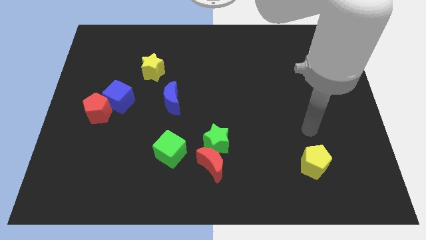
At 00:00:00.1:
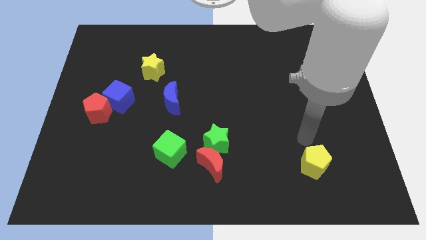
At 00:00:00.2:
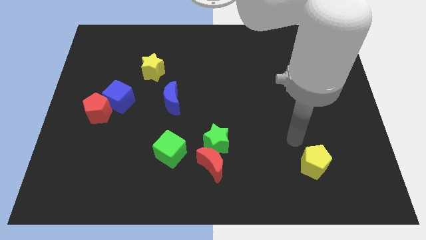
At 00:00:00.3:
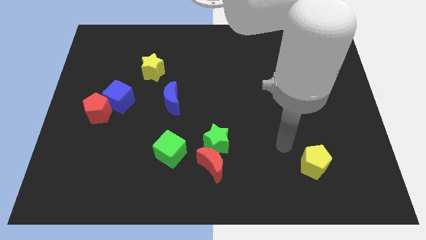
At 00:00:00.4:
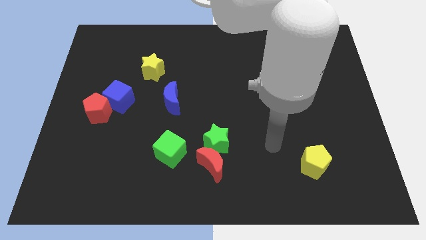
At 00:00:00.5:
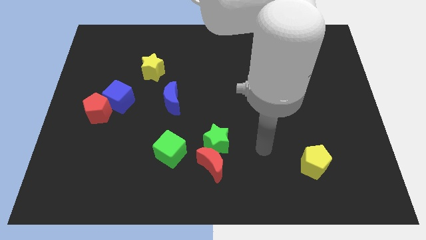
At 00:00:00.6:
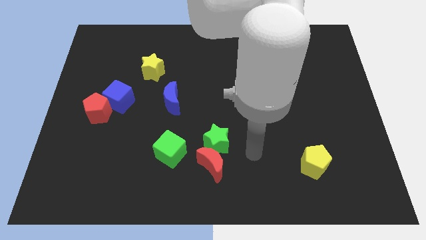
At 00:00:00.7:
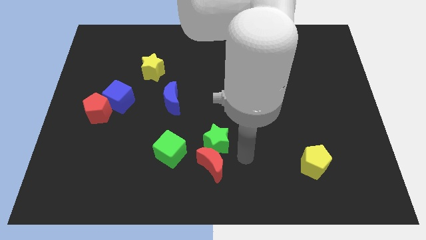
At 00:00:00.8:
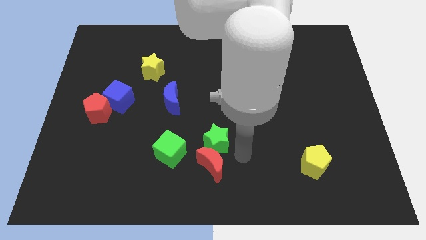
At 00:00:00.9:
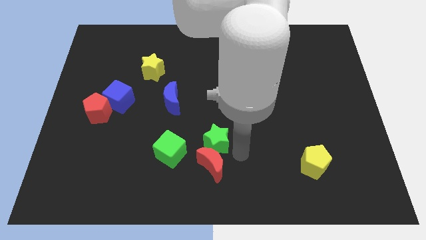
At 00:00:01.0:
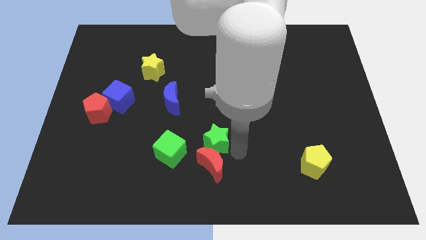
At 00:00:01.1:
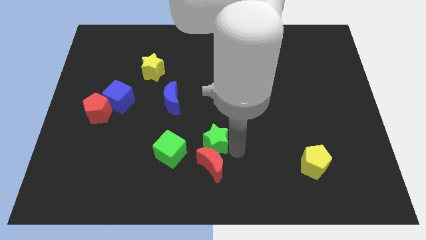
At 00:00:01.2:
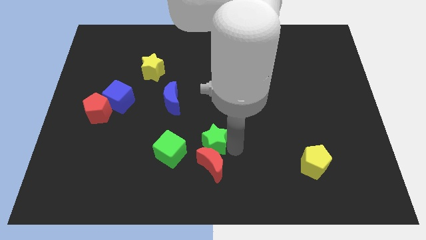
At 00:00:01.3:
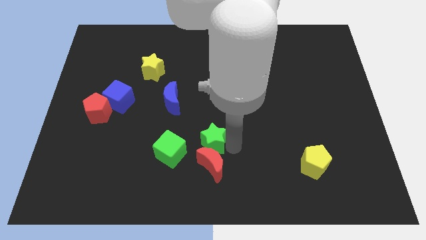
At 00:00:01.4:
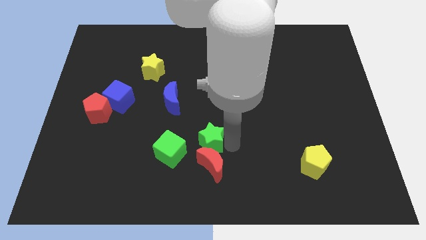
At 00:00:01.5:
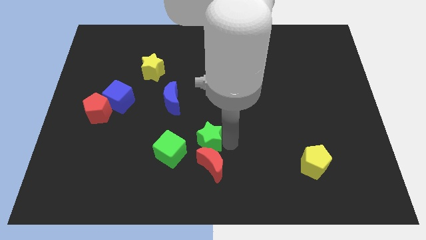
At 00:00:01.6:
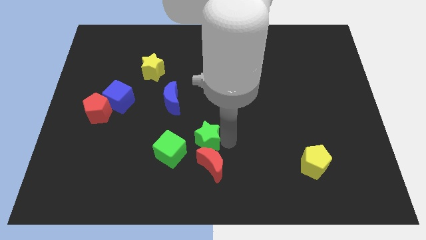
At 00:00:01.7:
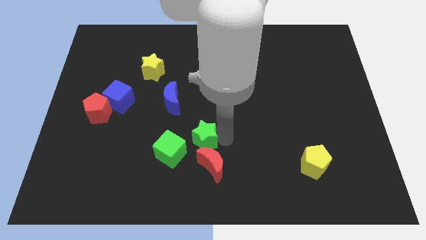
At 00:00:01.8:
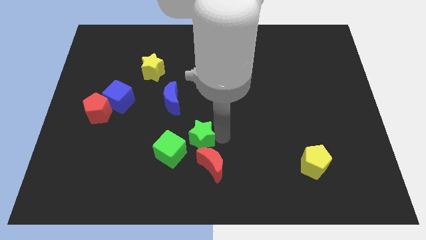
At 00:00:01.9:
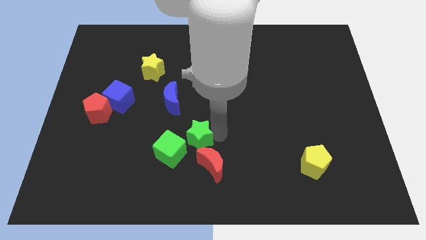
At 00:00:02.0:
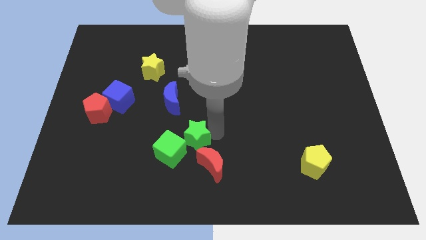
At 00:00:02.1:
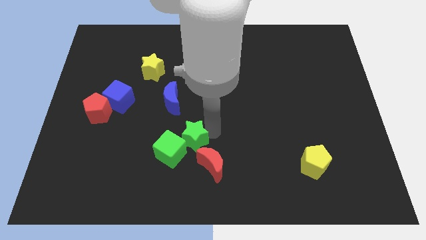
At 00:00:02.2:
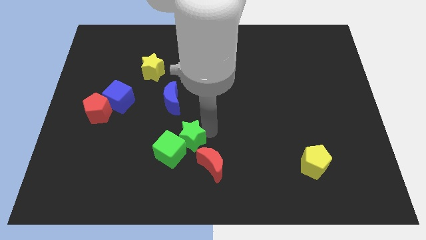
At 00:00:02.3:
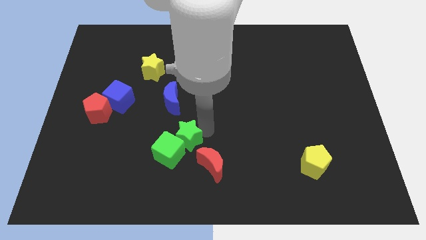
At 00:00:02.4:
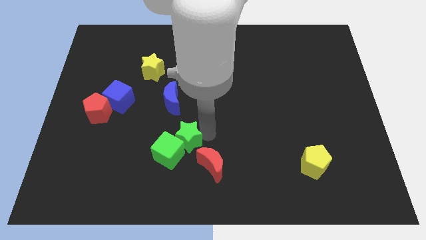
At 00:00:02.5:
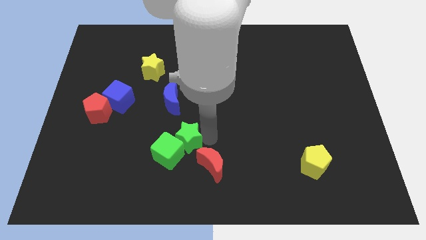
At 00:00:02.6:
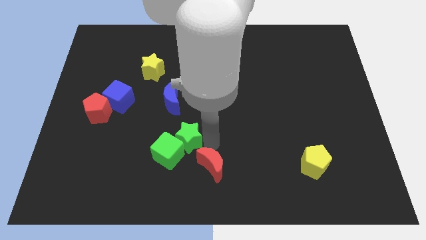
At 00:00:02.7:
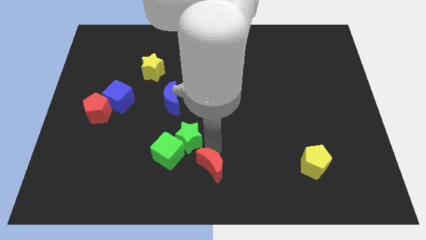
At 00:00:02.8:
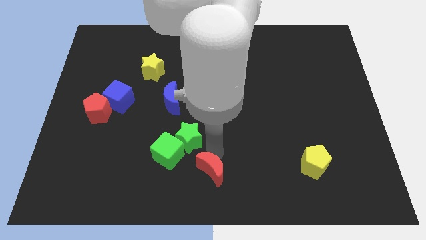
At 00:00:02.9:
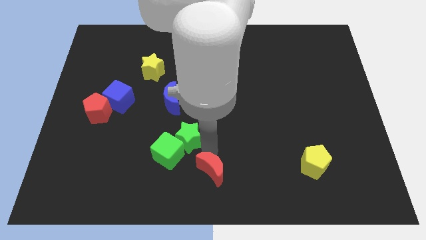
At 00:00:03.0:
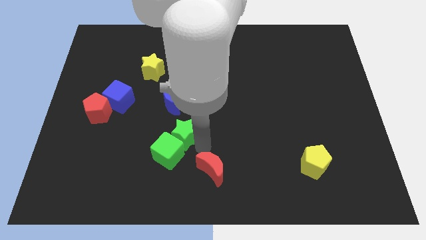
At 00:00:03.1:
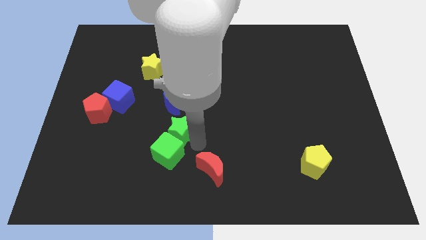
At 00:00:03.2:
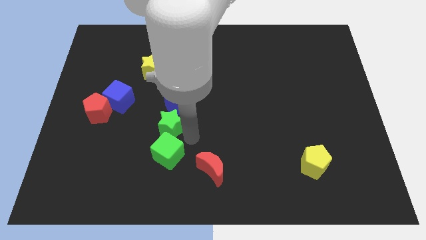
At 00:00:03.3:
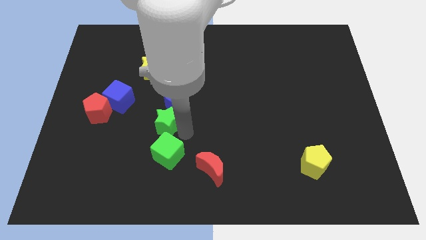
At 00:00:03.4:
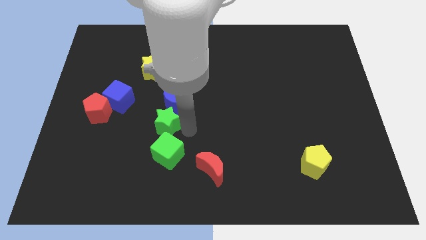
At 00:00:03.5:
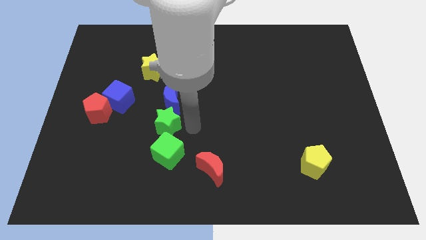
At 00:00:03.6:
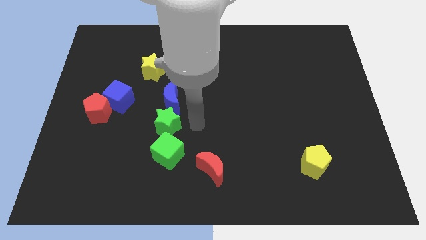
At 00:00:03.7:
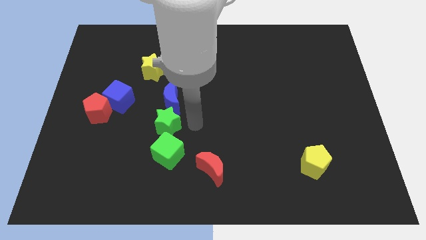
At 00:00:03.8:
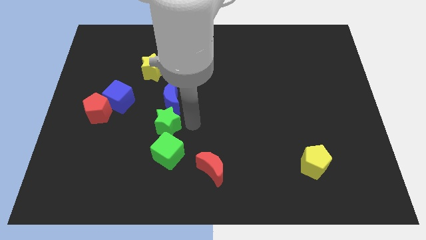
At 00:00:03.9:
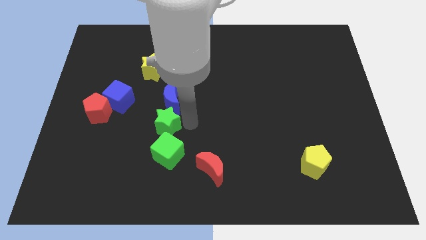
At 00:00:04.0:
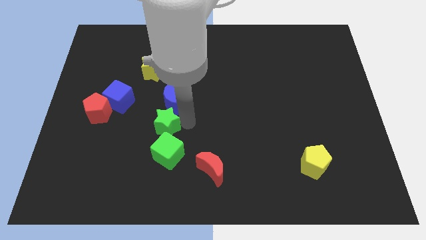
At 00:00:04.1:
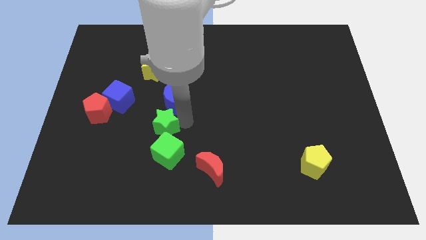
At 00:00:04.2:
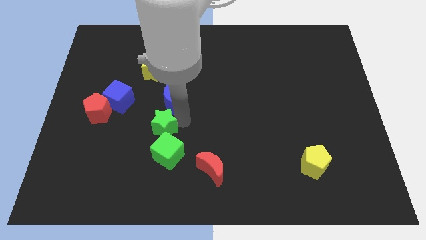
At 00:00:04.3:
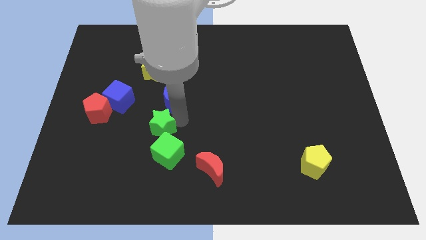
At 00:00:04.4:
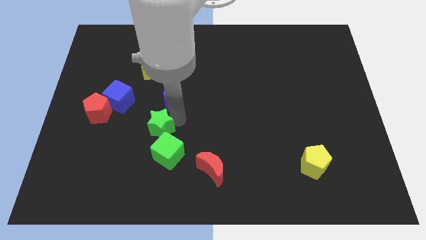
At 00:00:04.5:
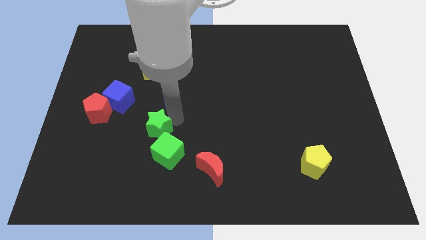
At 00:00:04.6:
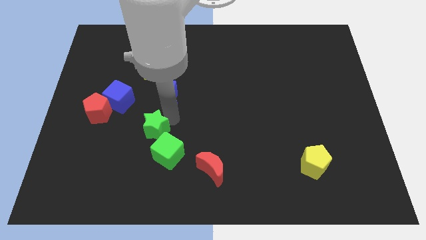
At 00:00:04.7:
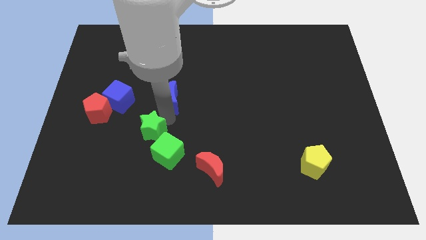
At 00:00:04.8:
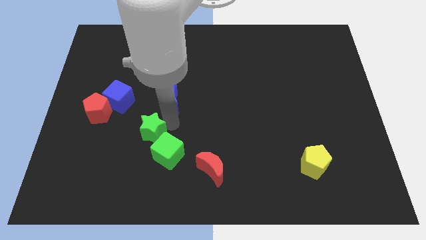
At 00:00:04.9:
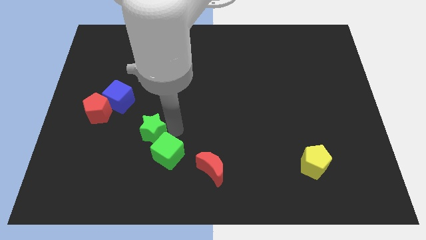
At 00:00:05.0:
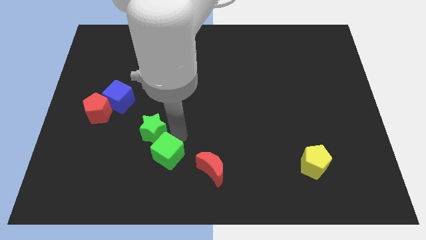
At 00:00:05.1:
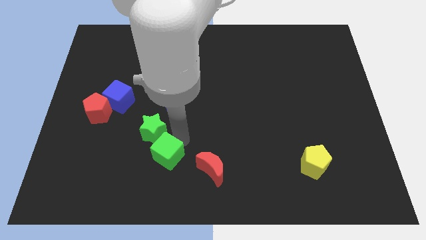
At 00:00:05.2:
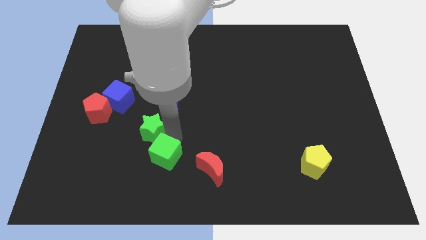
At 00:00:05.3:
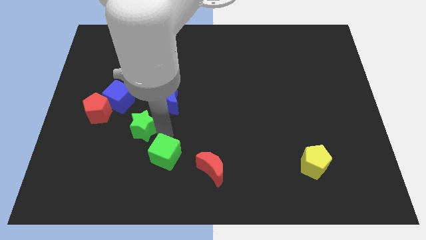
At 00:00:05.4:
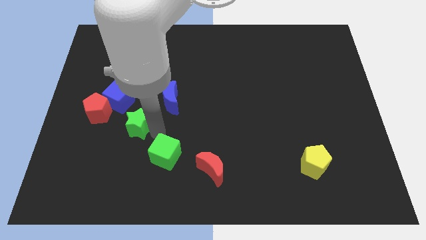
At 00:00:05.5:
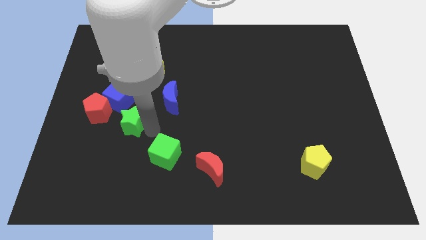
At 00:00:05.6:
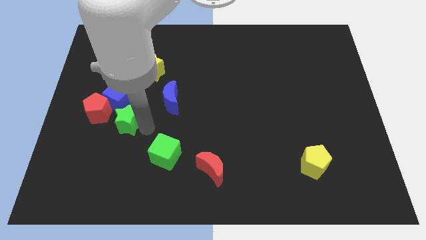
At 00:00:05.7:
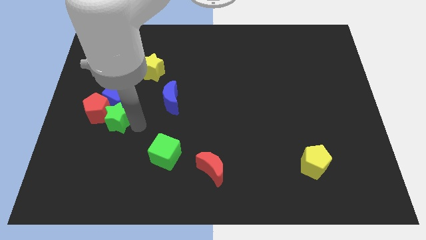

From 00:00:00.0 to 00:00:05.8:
push the green star towards the red pentagon

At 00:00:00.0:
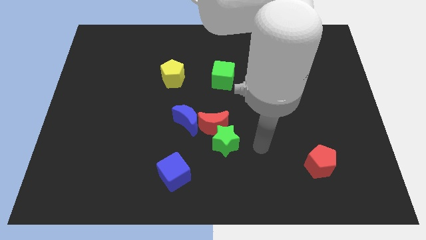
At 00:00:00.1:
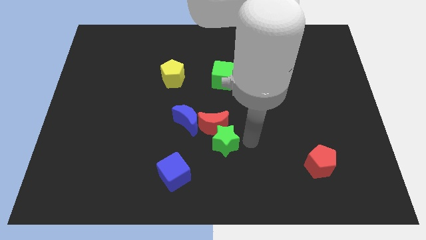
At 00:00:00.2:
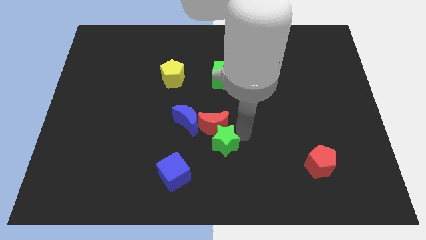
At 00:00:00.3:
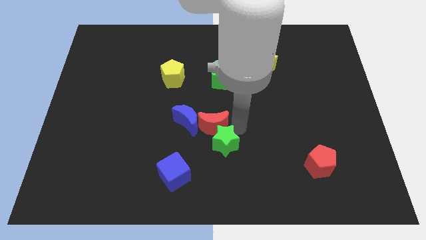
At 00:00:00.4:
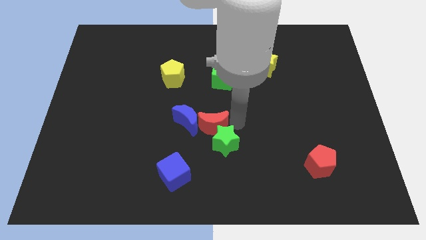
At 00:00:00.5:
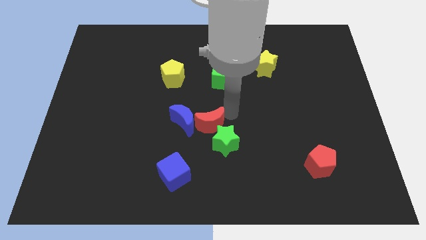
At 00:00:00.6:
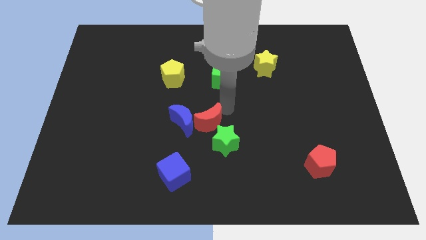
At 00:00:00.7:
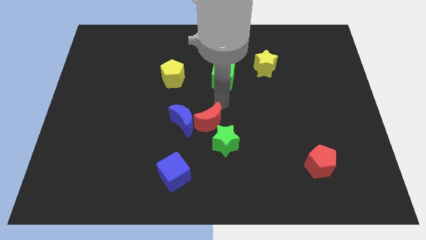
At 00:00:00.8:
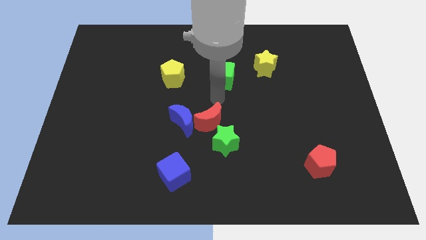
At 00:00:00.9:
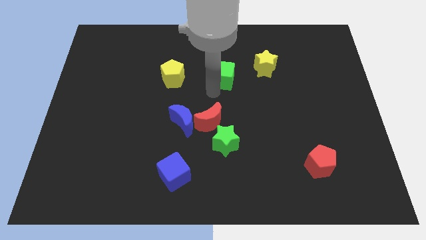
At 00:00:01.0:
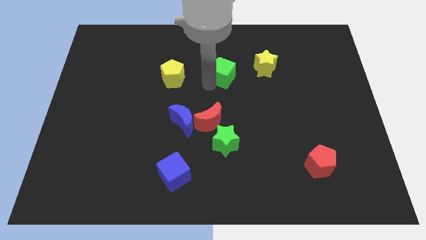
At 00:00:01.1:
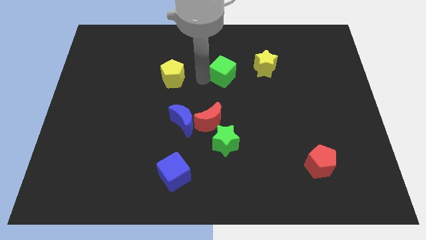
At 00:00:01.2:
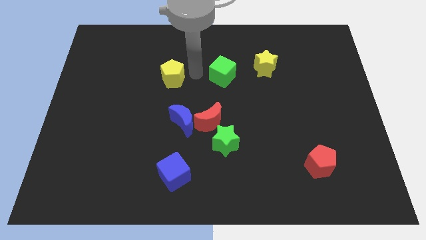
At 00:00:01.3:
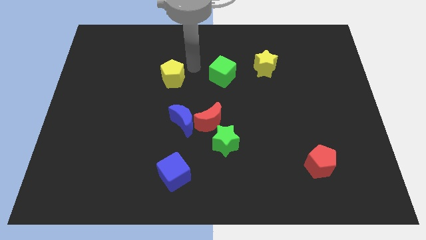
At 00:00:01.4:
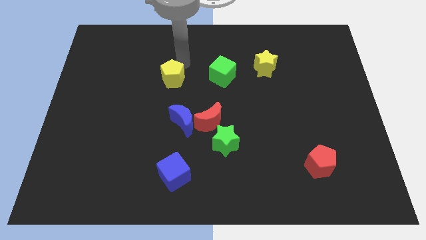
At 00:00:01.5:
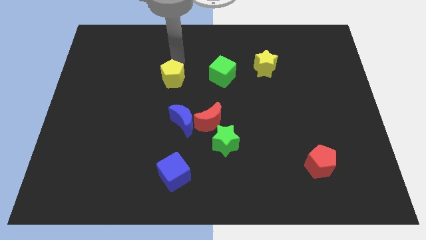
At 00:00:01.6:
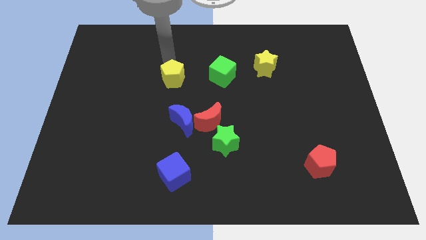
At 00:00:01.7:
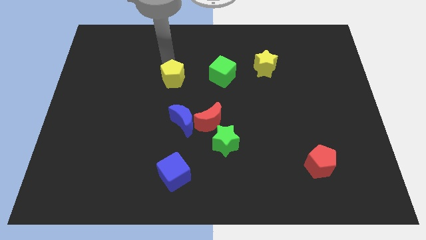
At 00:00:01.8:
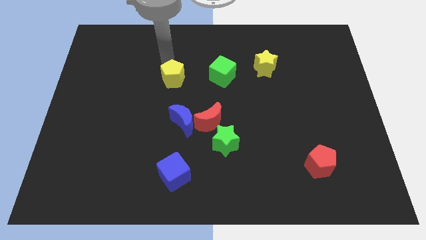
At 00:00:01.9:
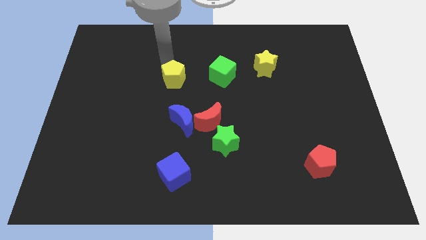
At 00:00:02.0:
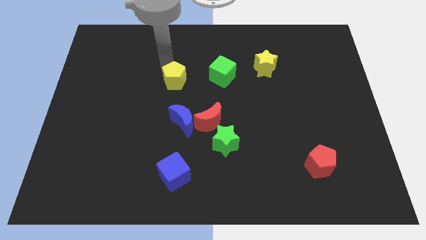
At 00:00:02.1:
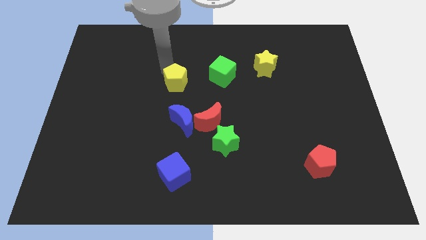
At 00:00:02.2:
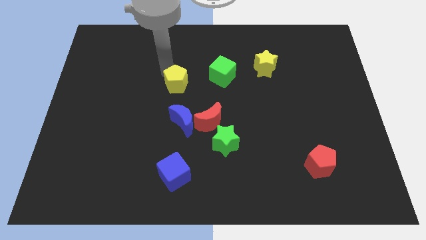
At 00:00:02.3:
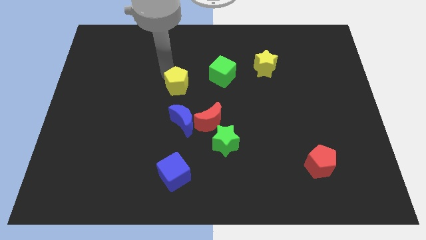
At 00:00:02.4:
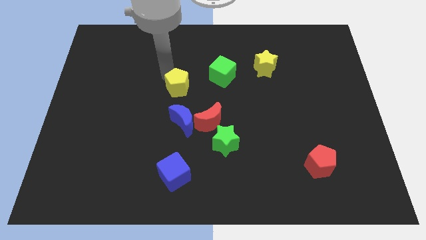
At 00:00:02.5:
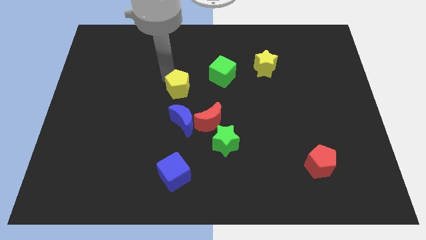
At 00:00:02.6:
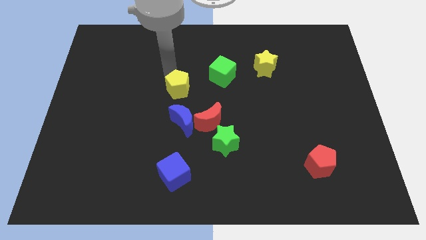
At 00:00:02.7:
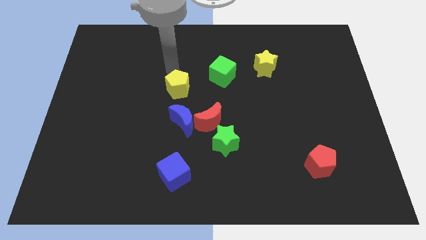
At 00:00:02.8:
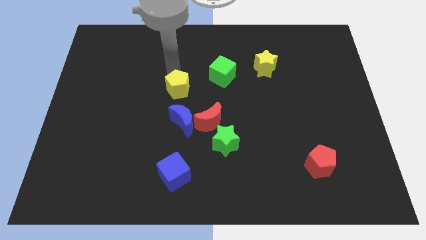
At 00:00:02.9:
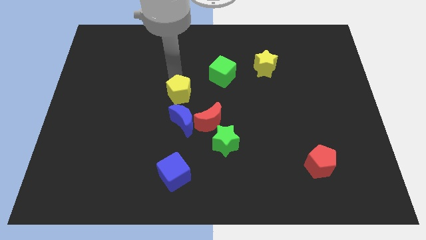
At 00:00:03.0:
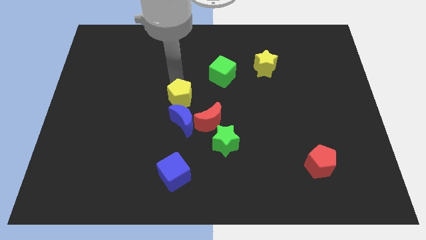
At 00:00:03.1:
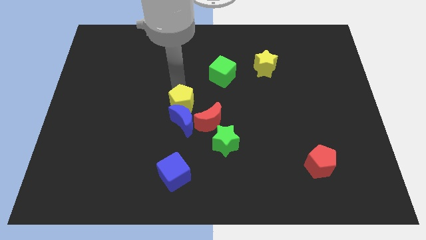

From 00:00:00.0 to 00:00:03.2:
push the yellow pentagon towards the blue moon
